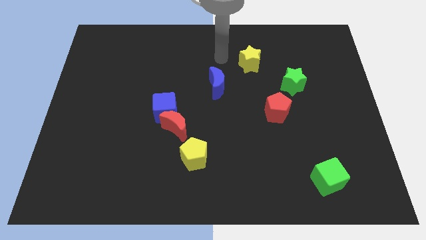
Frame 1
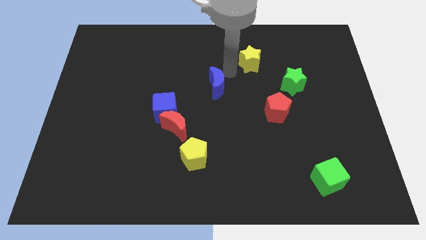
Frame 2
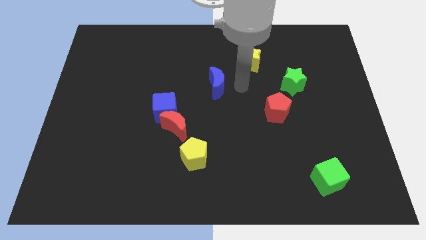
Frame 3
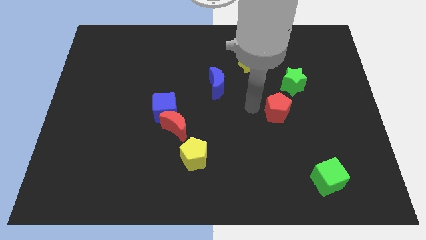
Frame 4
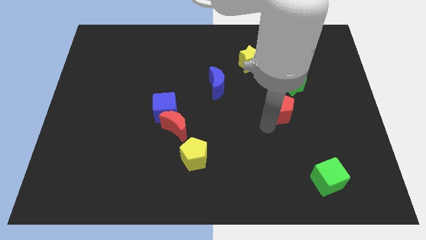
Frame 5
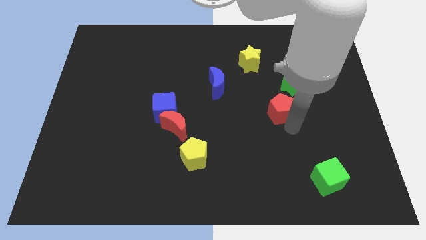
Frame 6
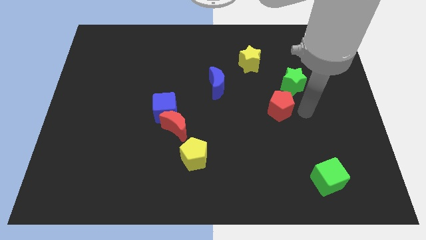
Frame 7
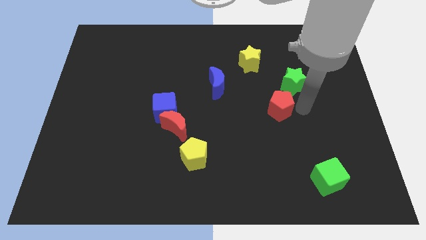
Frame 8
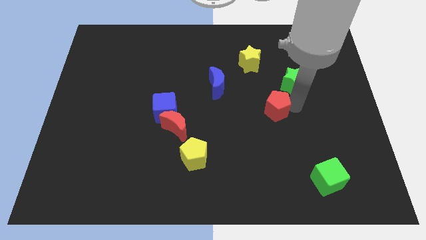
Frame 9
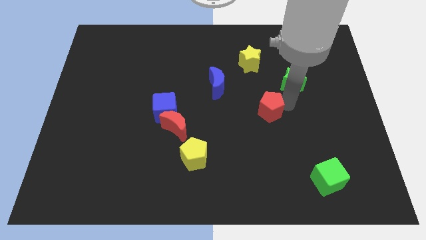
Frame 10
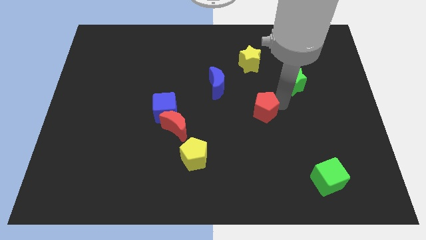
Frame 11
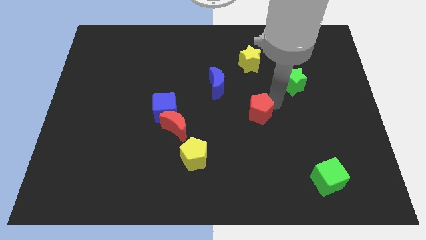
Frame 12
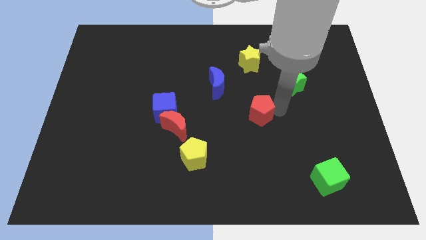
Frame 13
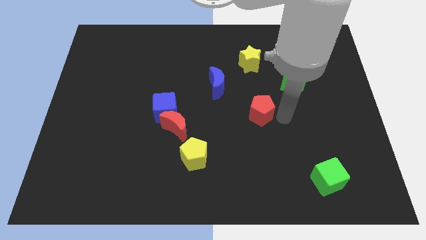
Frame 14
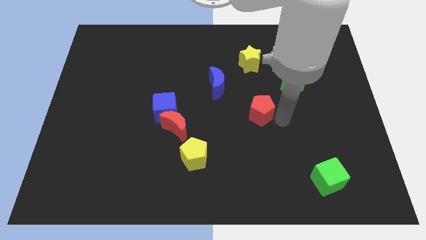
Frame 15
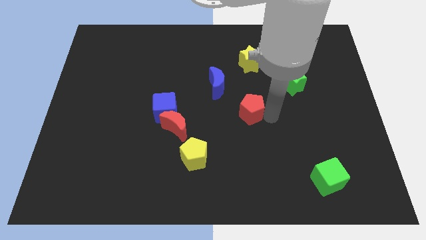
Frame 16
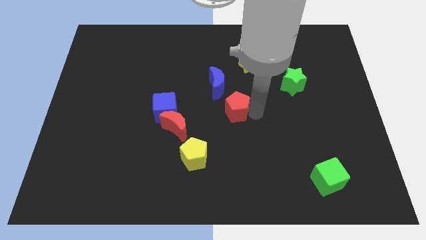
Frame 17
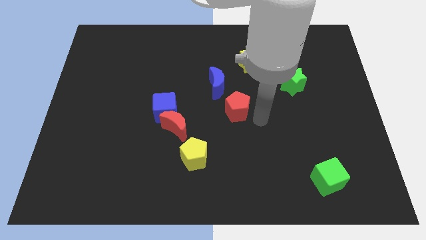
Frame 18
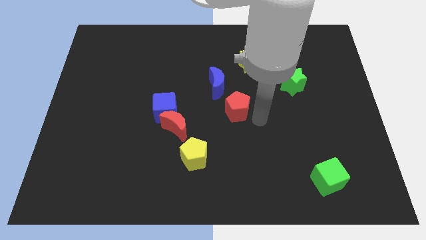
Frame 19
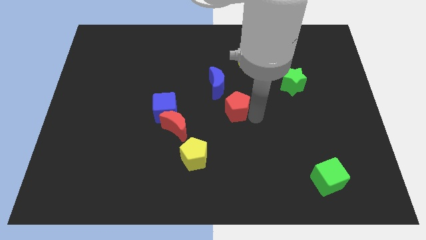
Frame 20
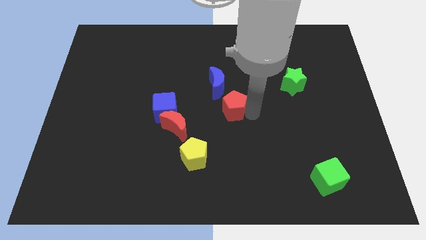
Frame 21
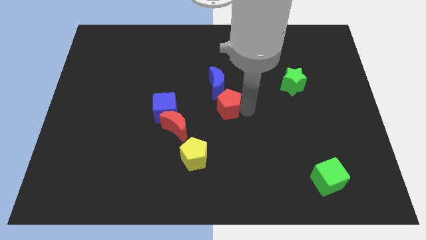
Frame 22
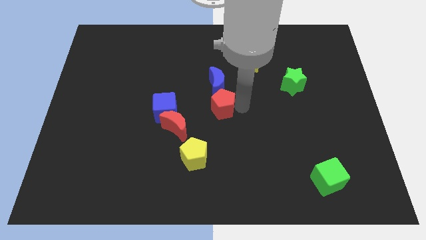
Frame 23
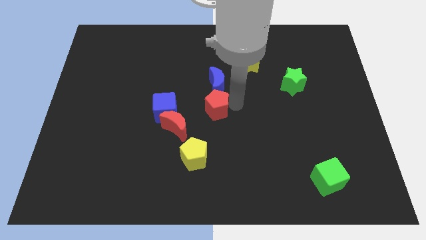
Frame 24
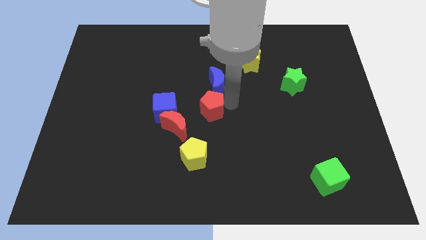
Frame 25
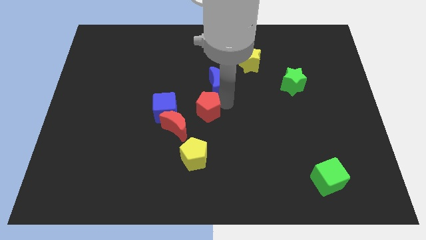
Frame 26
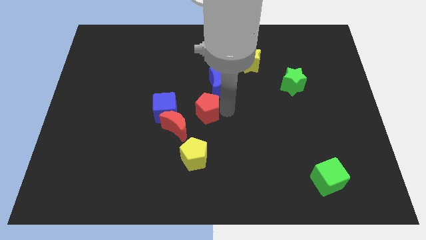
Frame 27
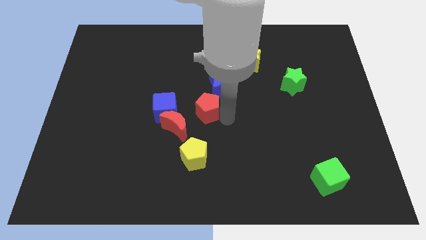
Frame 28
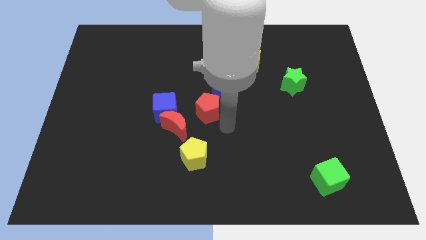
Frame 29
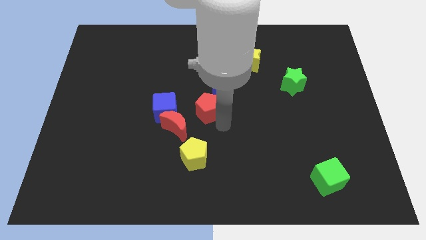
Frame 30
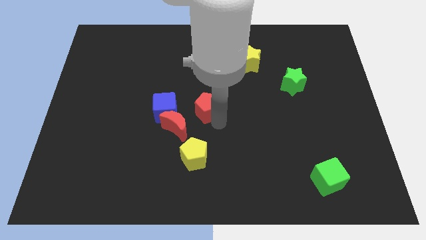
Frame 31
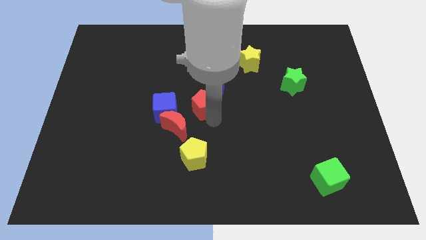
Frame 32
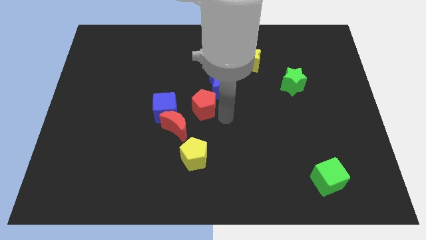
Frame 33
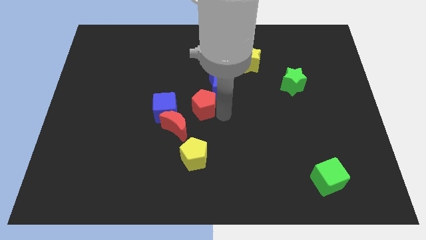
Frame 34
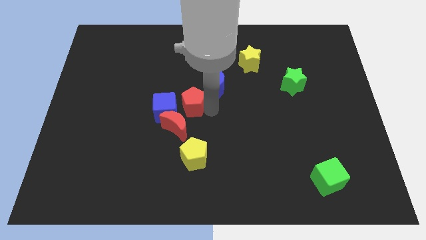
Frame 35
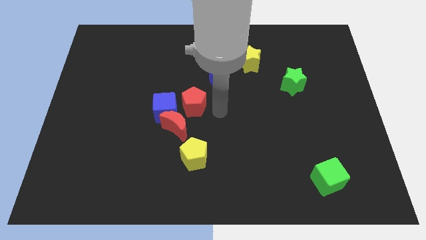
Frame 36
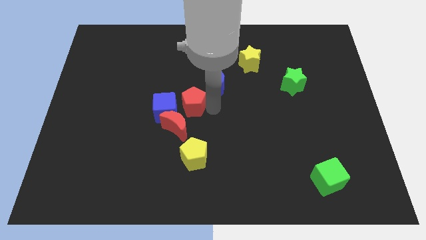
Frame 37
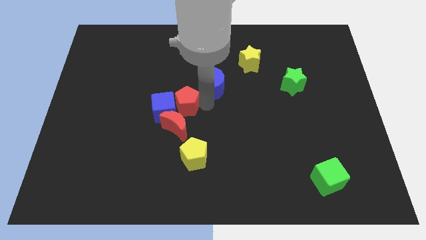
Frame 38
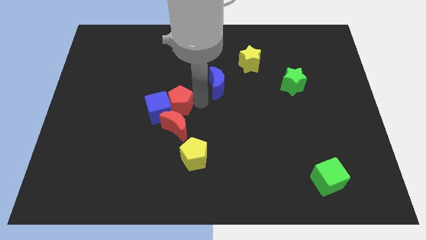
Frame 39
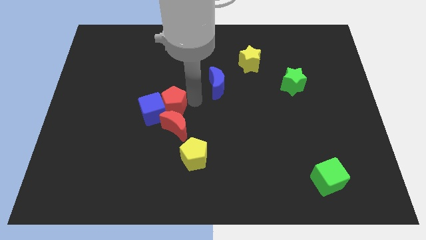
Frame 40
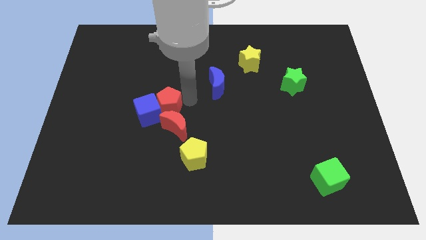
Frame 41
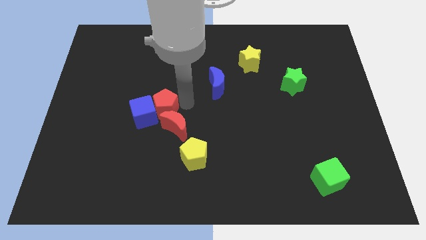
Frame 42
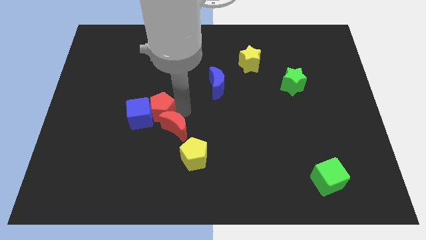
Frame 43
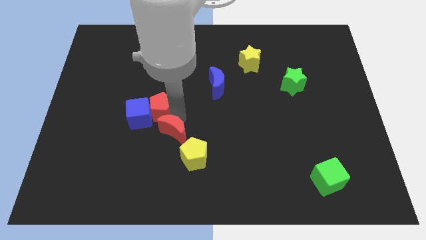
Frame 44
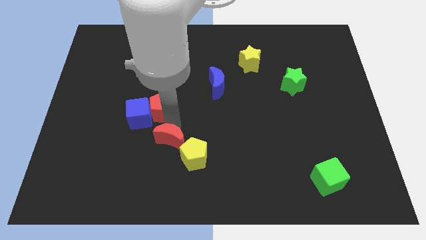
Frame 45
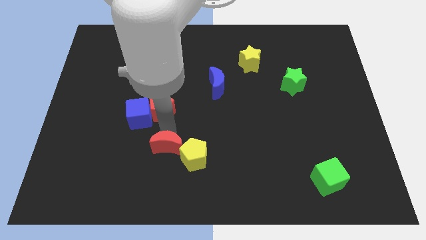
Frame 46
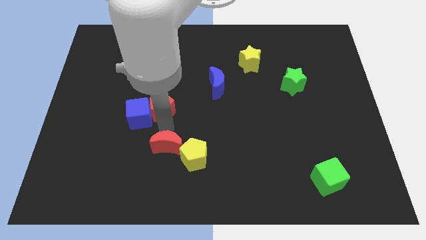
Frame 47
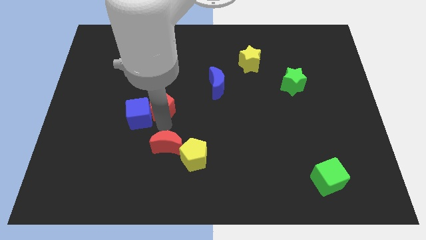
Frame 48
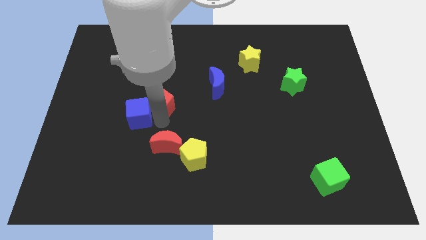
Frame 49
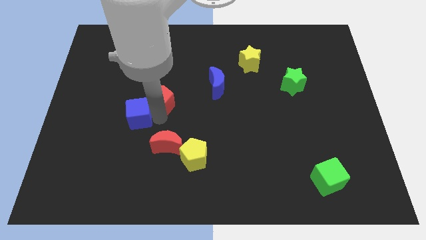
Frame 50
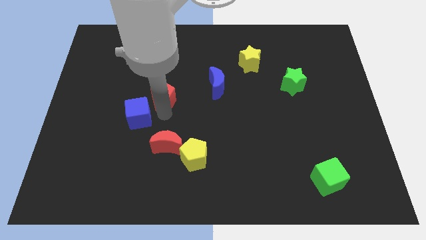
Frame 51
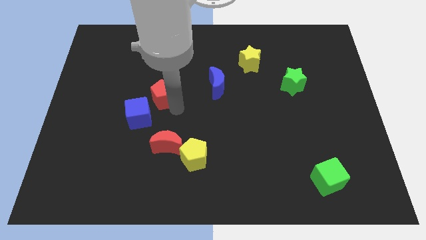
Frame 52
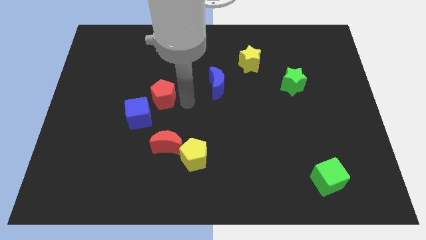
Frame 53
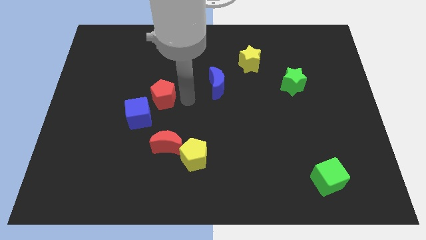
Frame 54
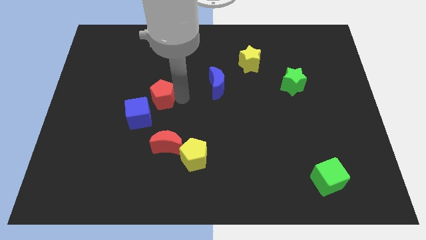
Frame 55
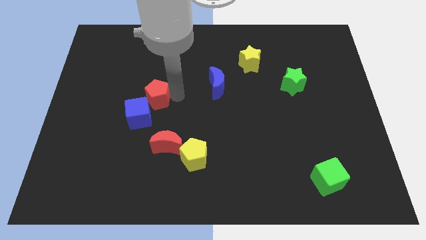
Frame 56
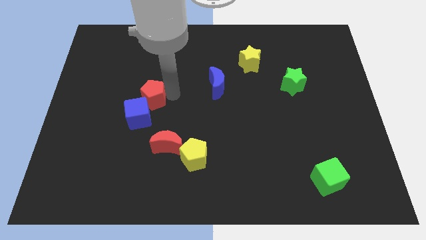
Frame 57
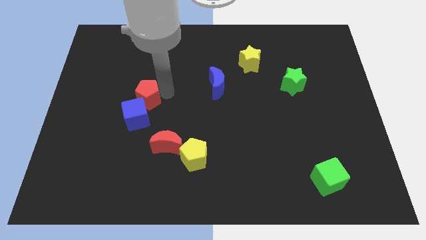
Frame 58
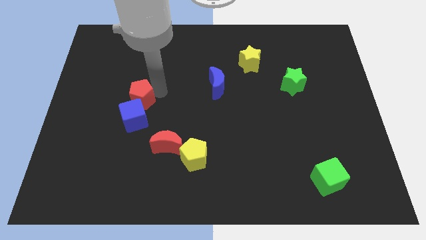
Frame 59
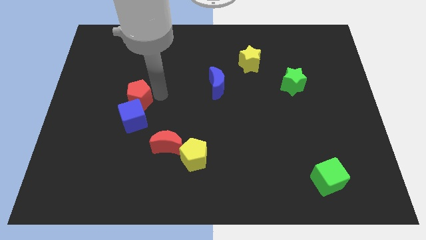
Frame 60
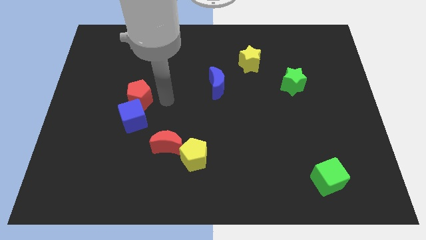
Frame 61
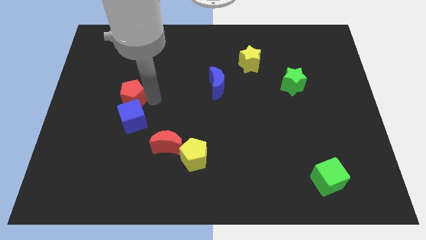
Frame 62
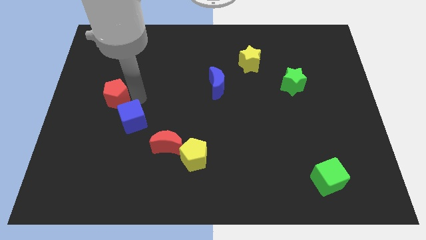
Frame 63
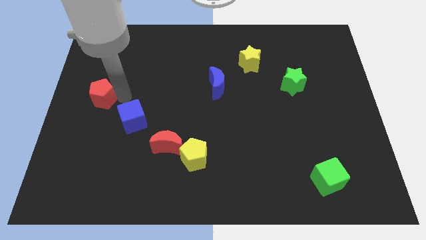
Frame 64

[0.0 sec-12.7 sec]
put the red pentagon to the center left
